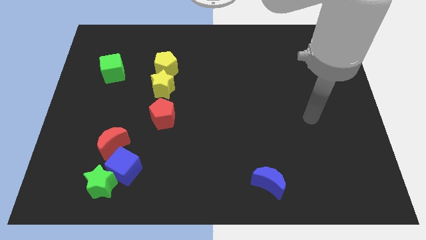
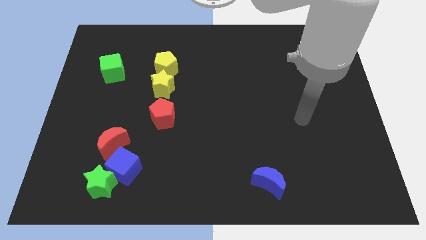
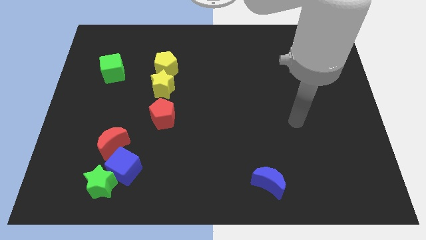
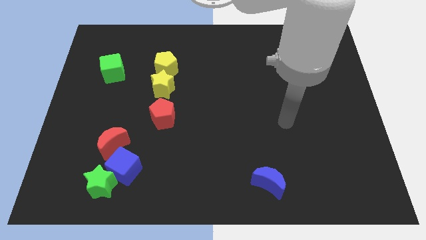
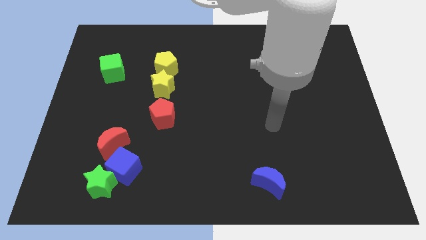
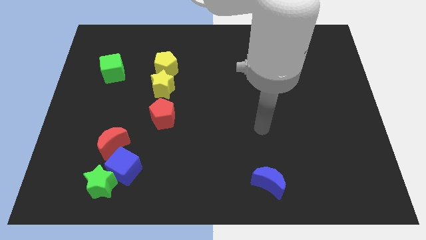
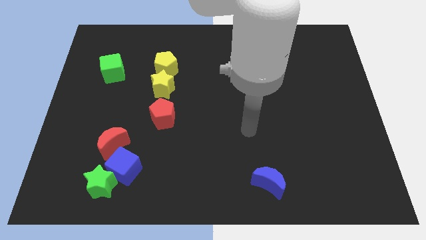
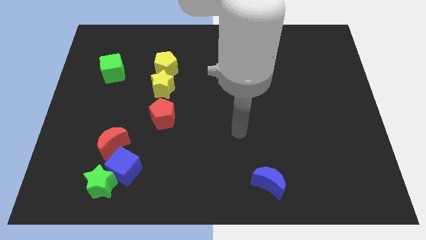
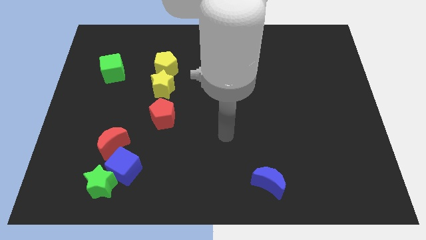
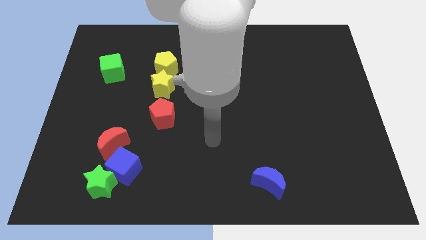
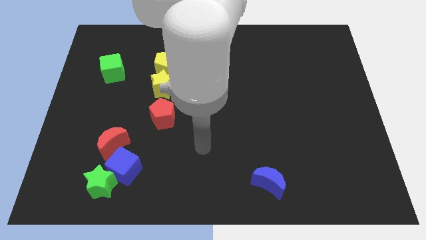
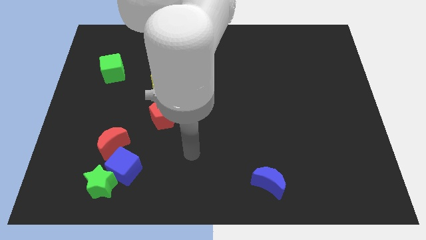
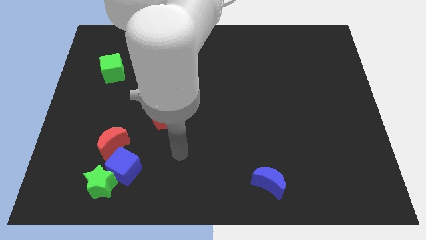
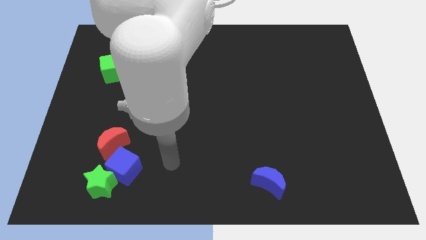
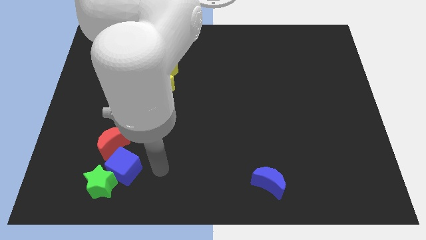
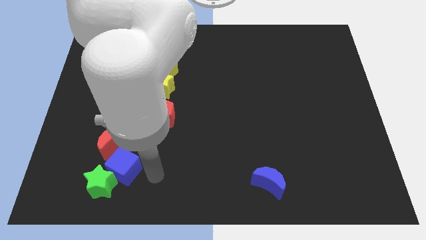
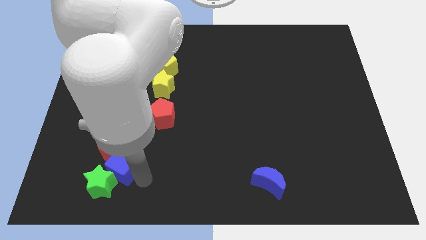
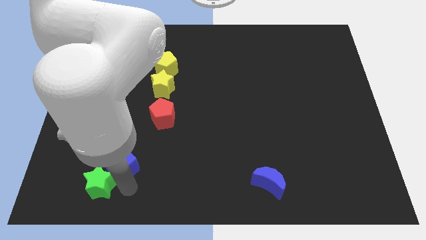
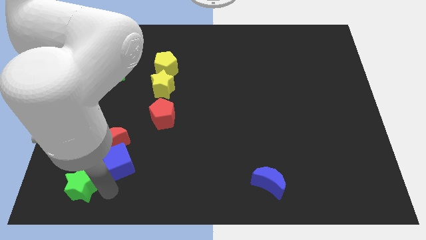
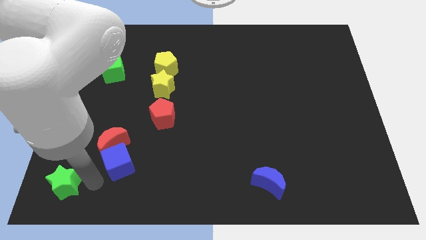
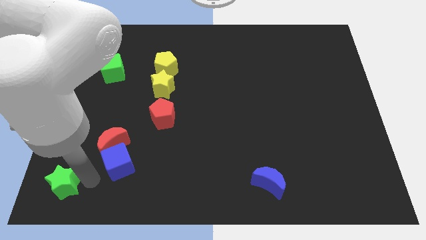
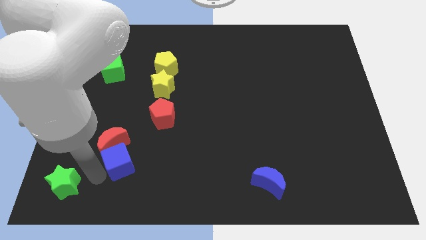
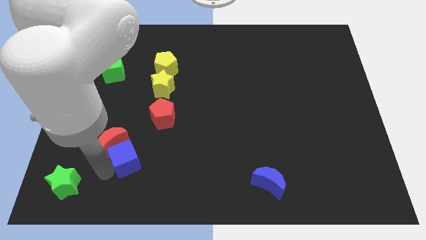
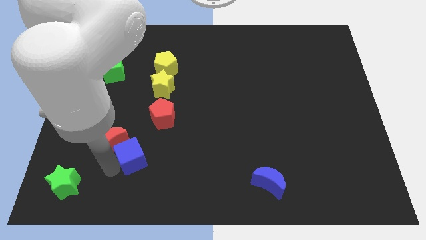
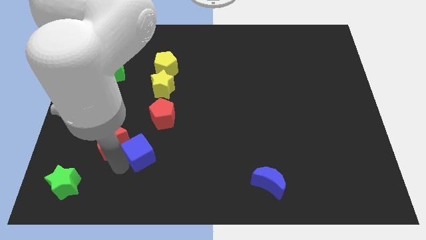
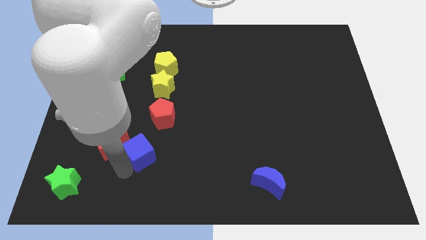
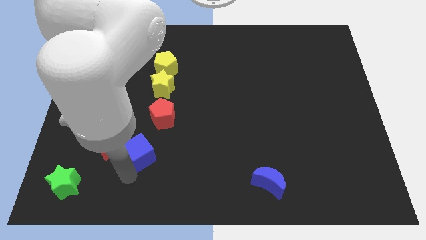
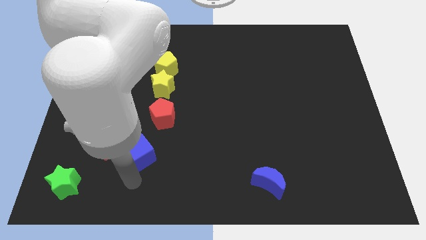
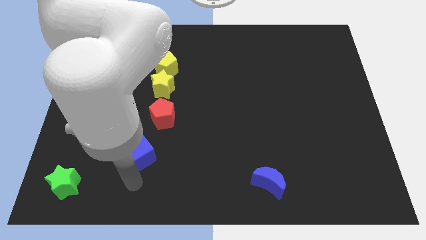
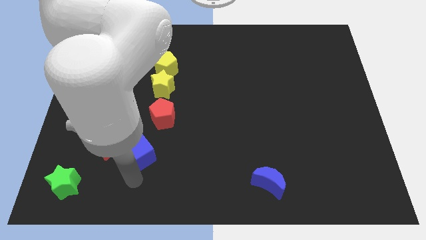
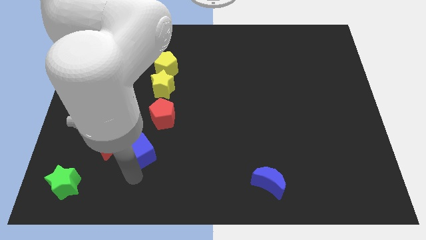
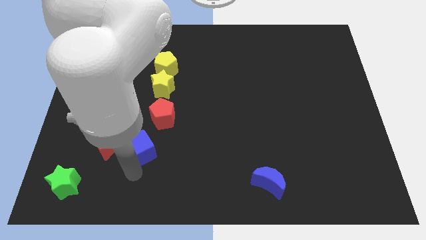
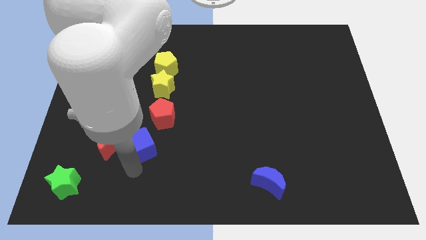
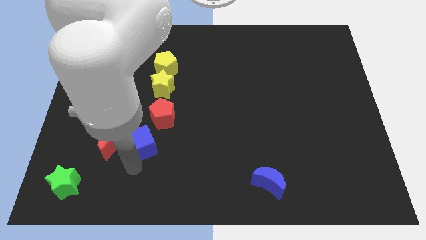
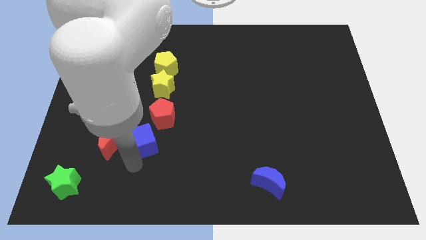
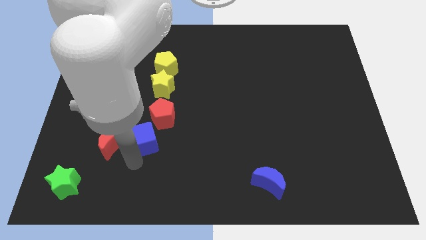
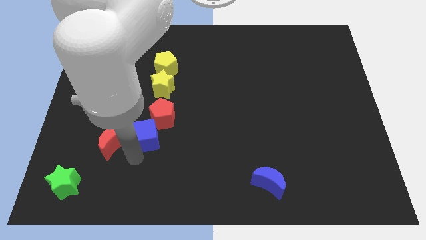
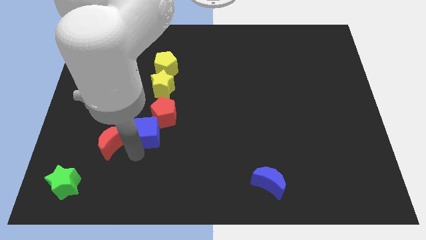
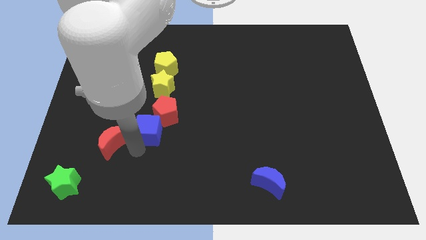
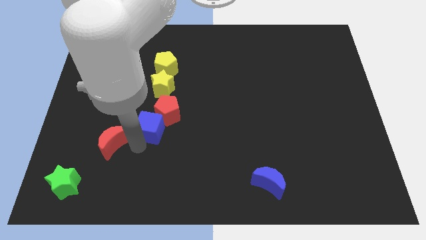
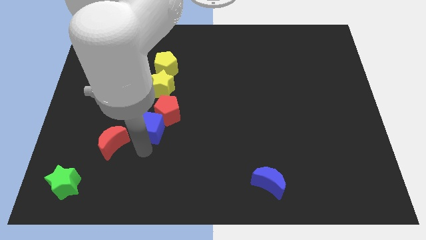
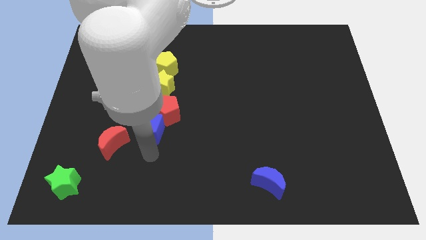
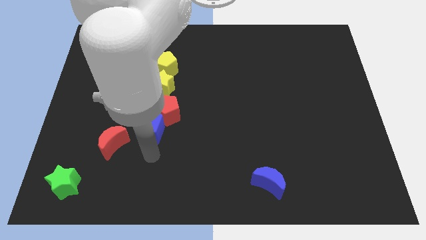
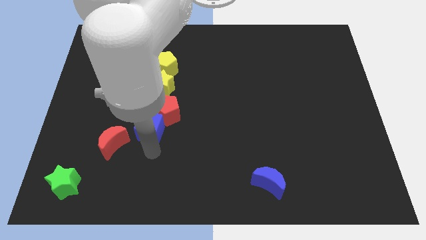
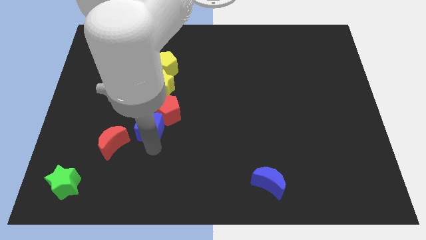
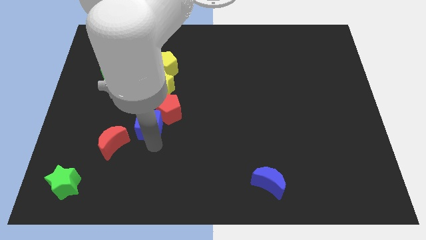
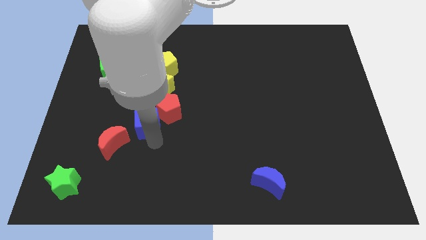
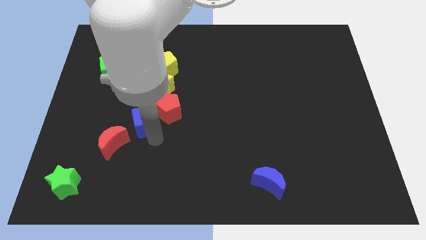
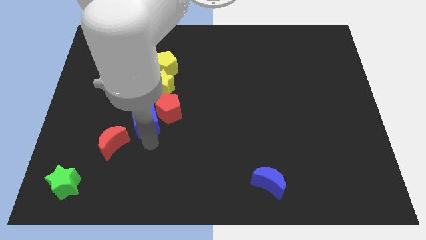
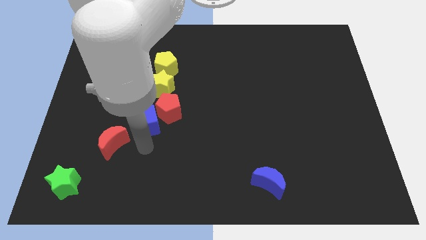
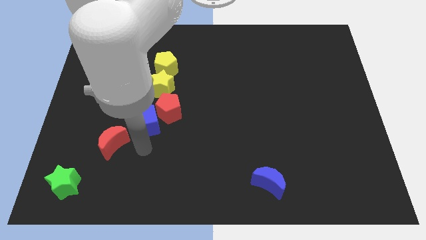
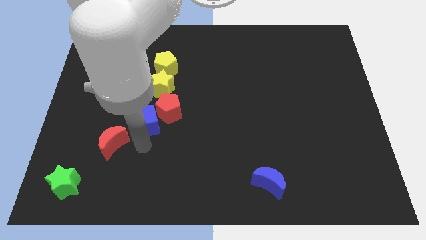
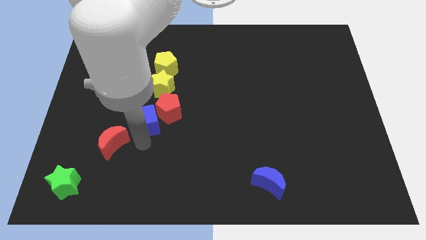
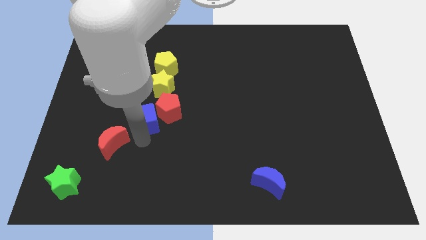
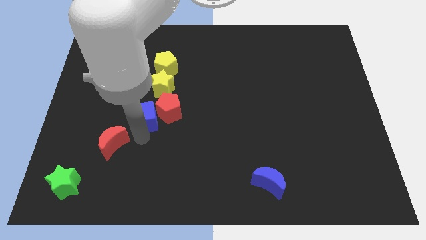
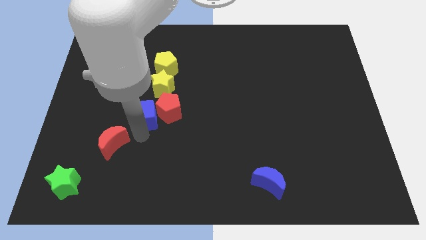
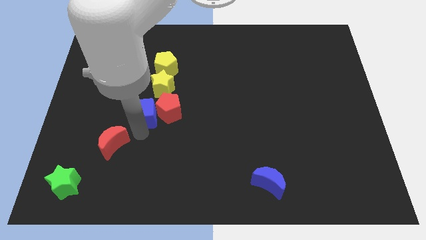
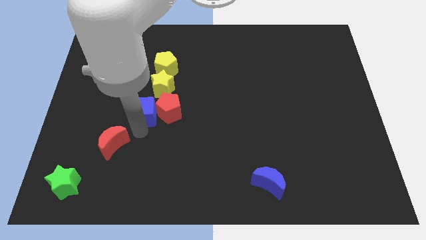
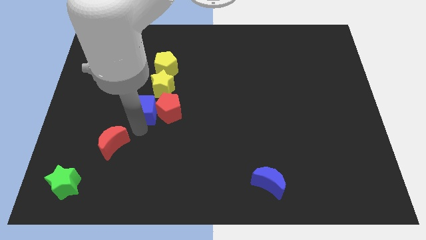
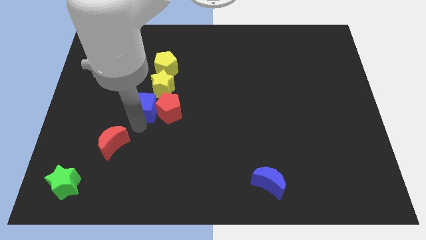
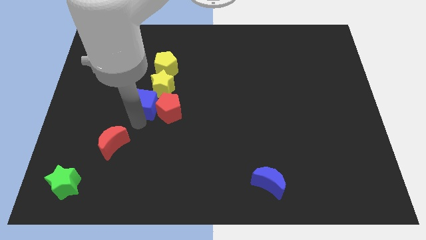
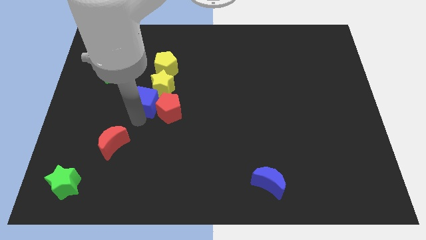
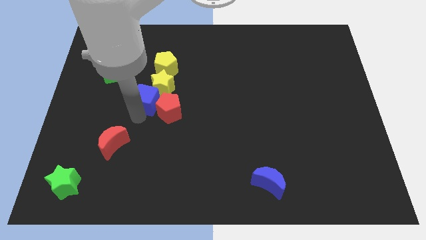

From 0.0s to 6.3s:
move the blue cube to the yellow star

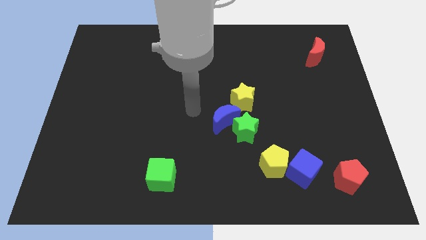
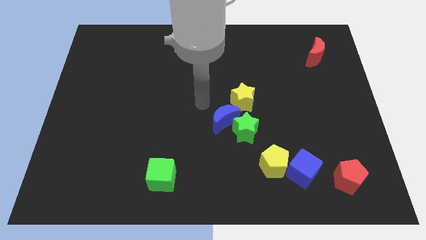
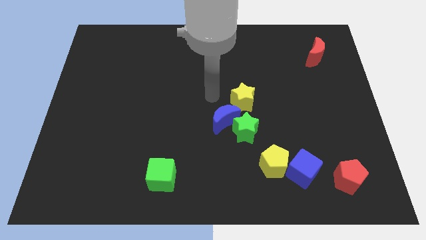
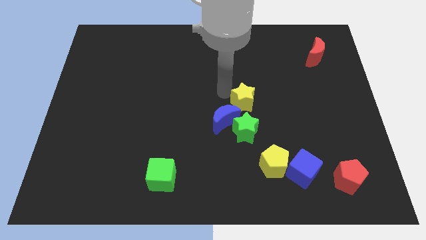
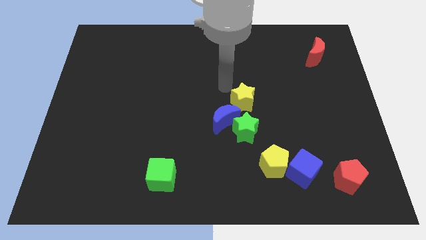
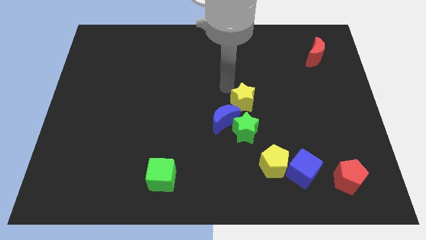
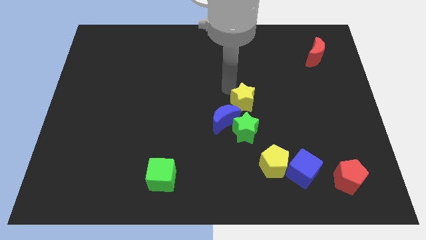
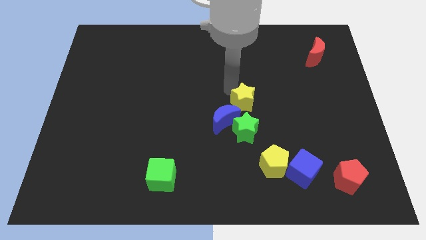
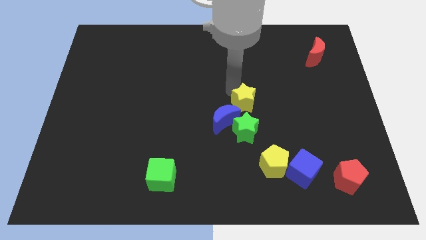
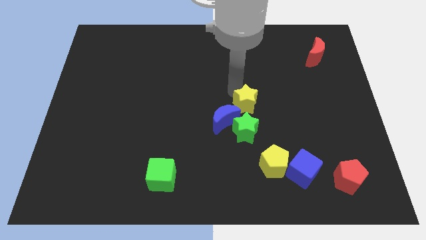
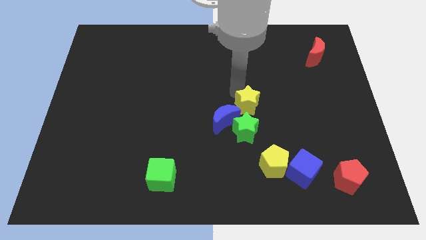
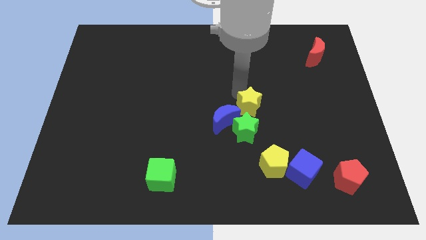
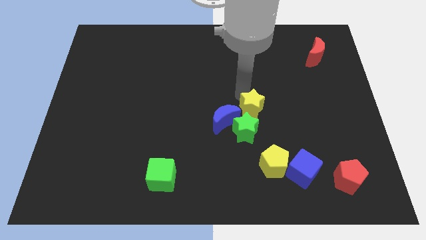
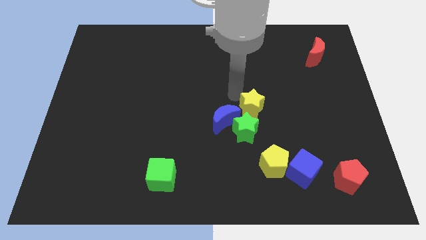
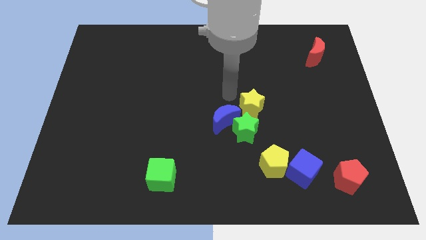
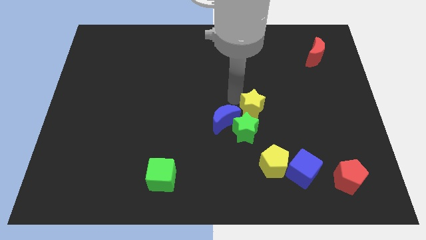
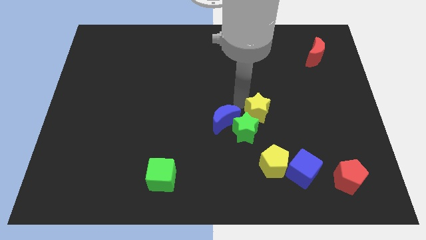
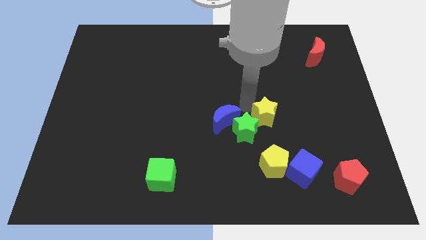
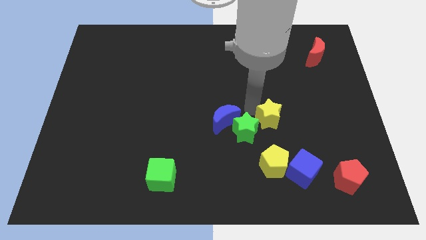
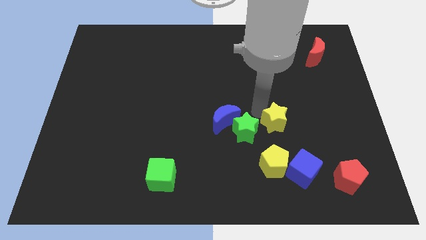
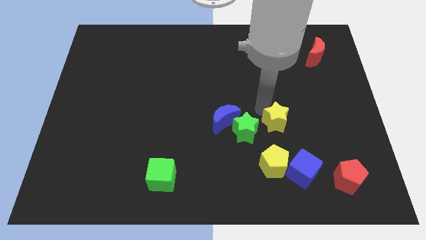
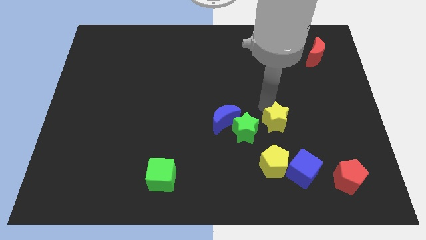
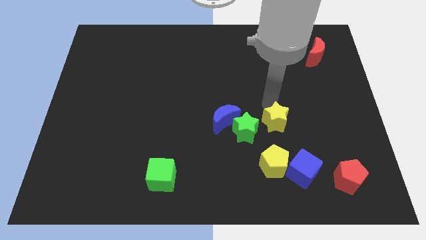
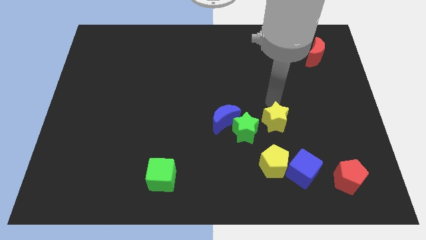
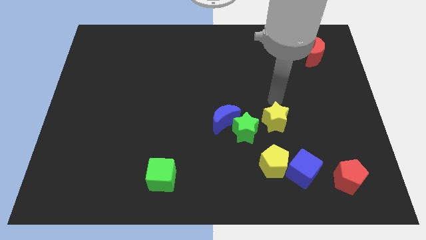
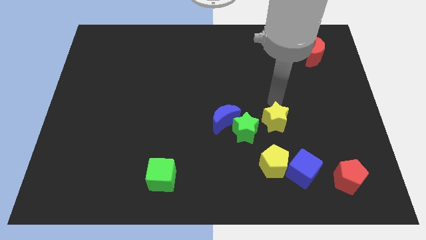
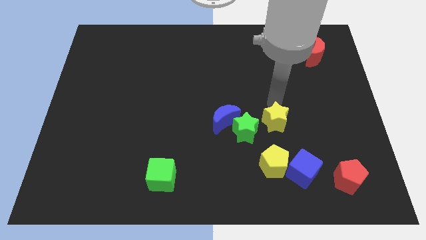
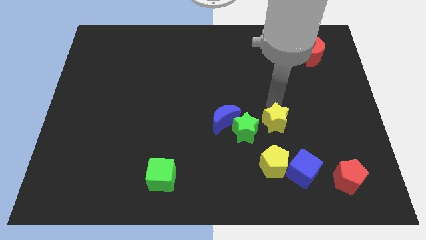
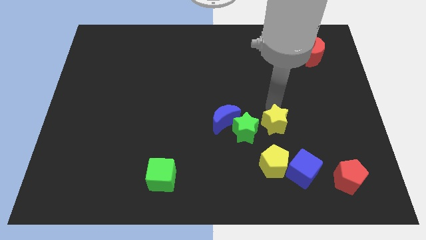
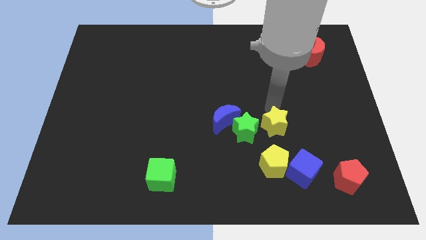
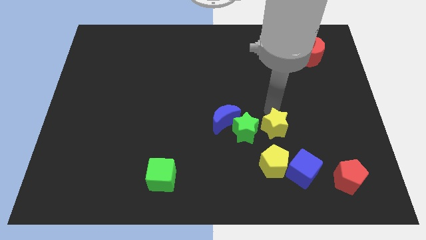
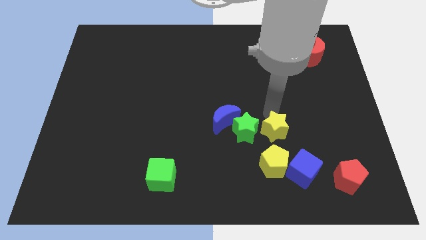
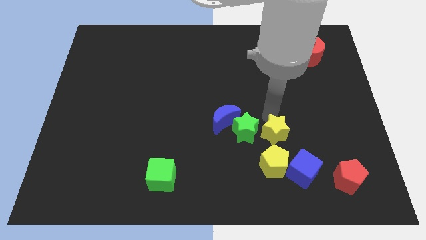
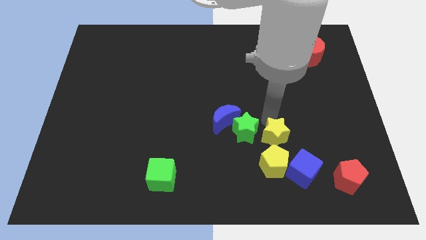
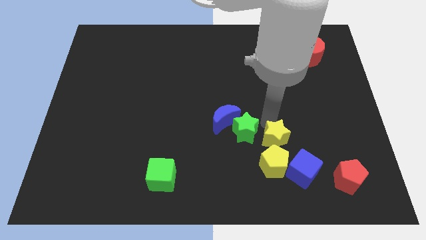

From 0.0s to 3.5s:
push the yellow star close to the yellow pentagon
